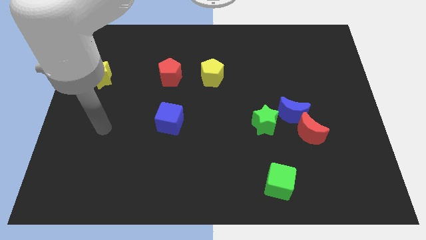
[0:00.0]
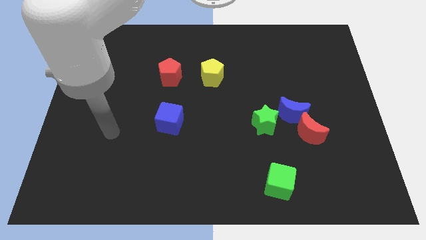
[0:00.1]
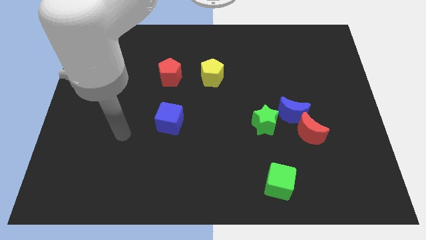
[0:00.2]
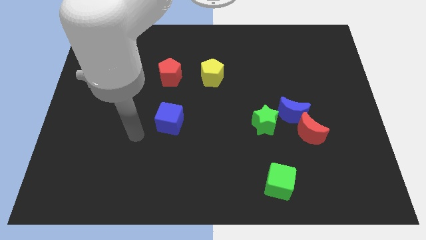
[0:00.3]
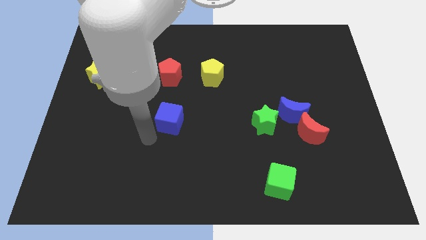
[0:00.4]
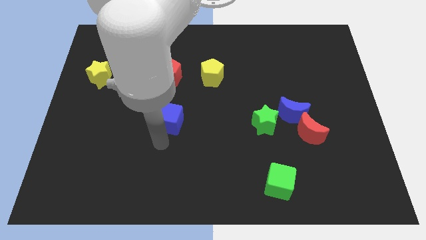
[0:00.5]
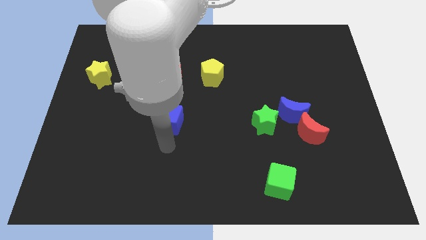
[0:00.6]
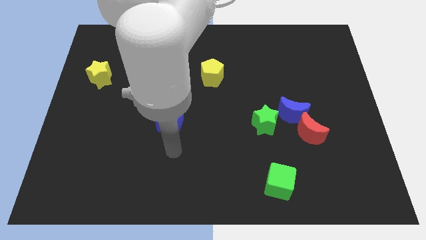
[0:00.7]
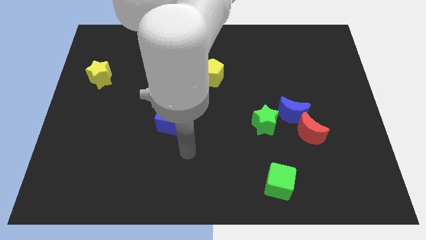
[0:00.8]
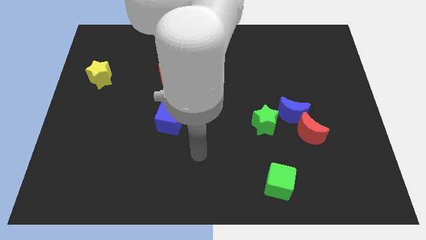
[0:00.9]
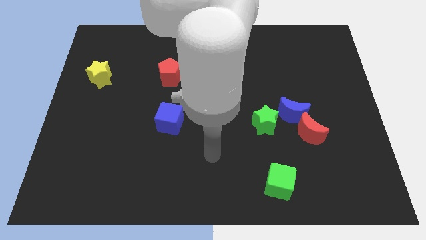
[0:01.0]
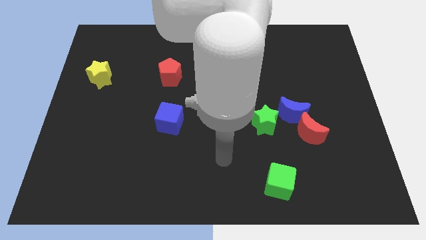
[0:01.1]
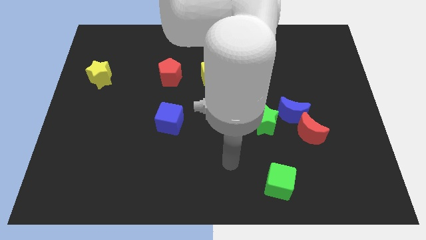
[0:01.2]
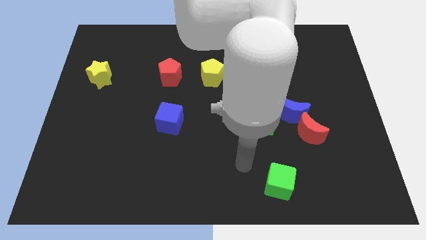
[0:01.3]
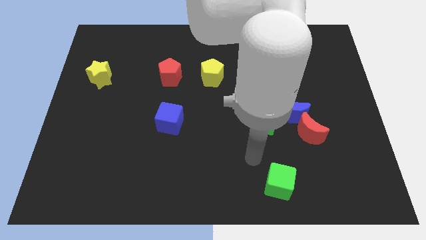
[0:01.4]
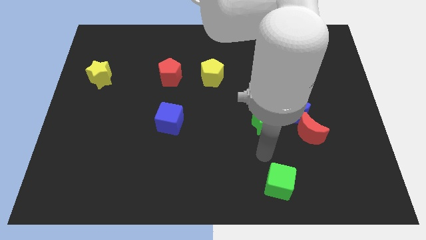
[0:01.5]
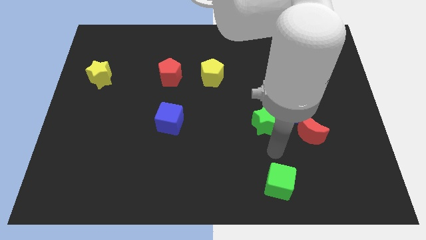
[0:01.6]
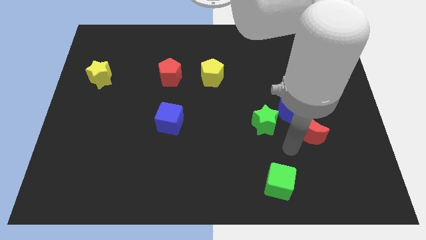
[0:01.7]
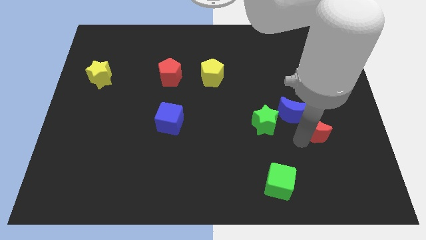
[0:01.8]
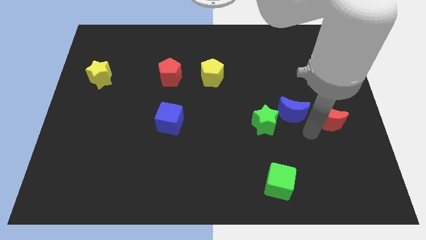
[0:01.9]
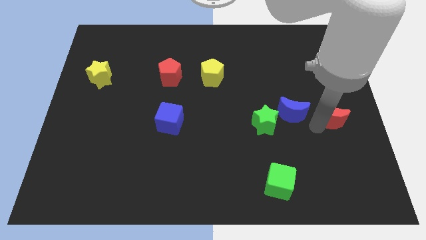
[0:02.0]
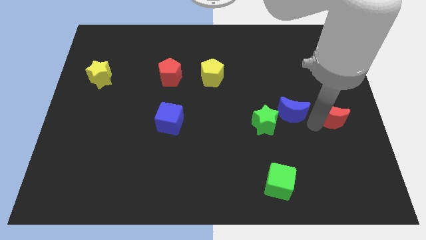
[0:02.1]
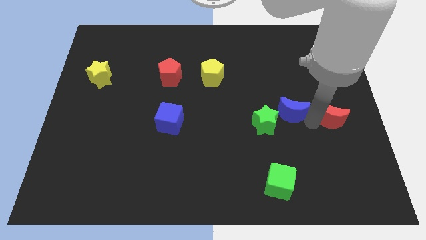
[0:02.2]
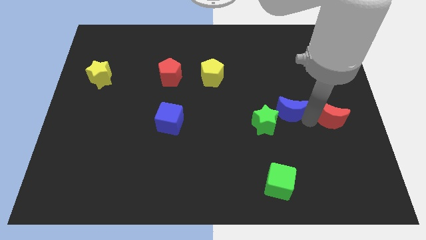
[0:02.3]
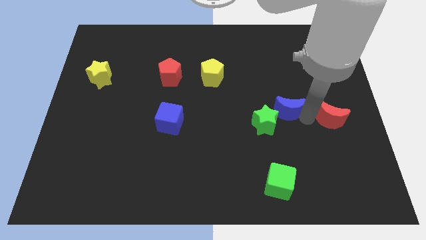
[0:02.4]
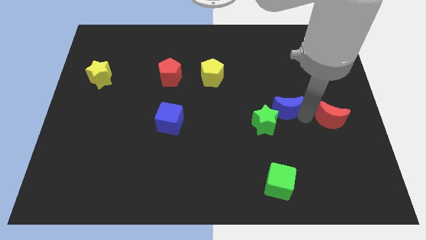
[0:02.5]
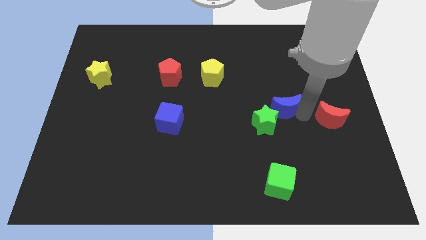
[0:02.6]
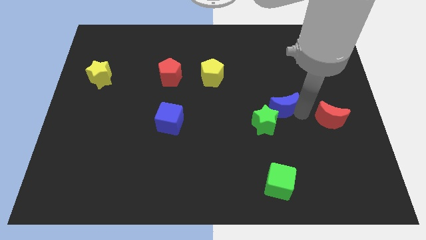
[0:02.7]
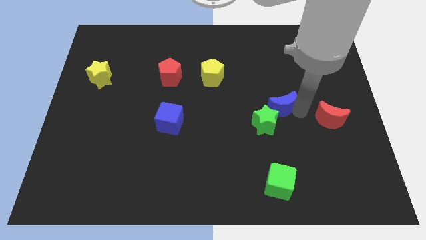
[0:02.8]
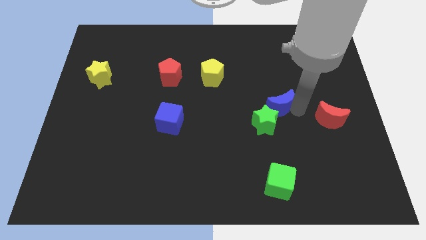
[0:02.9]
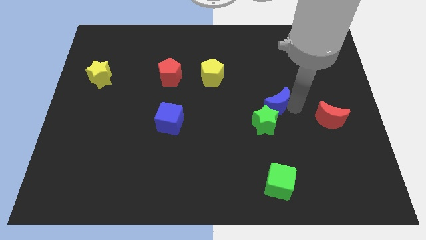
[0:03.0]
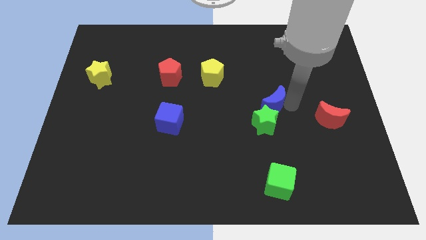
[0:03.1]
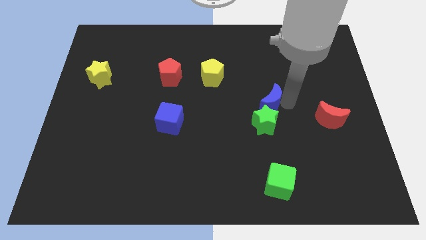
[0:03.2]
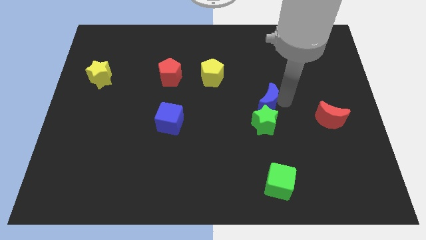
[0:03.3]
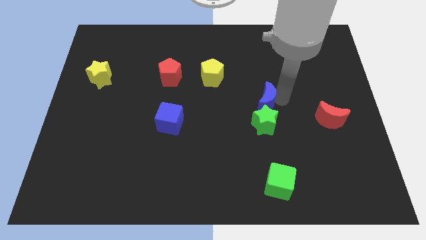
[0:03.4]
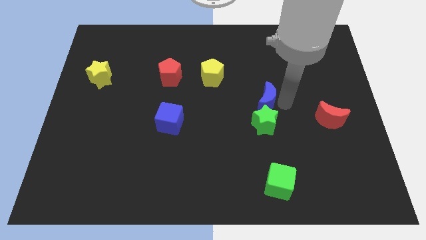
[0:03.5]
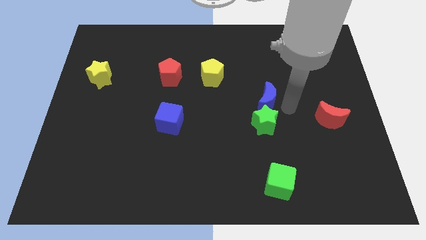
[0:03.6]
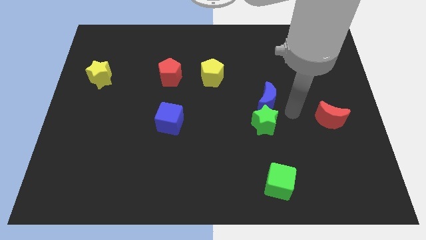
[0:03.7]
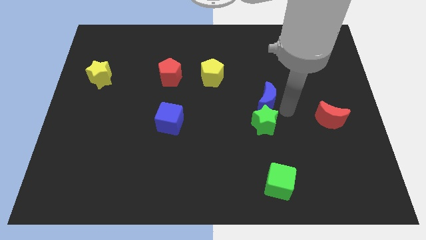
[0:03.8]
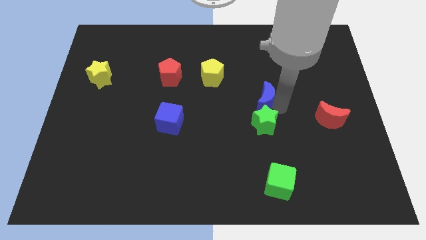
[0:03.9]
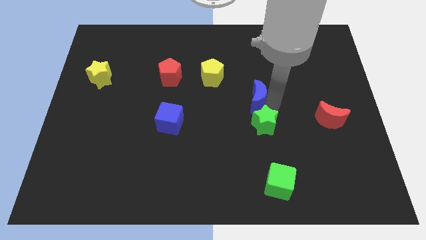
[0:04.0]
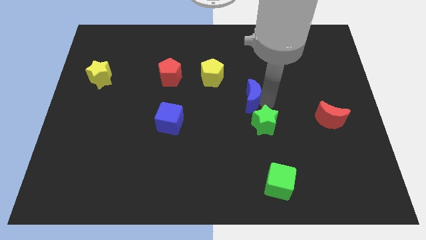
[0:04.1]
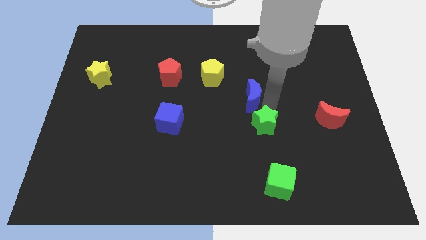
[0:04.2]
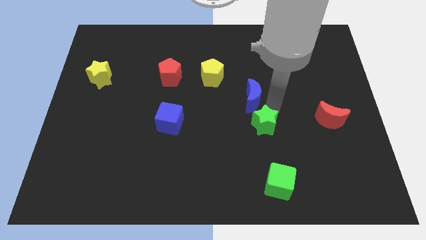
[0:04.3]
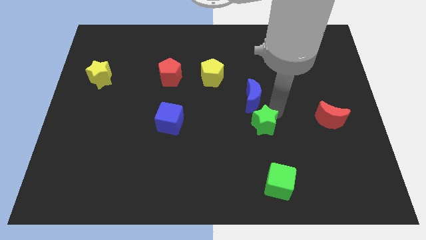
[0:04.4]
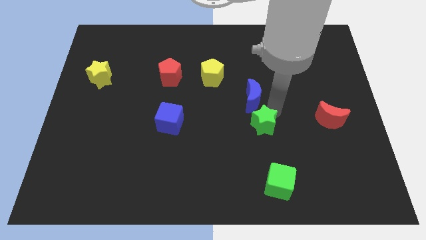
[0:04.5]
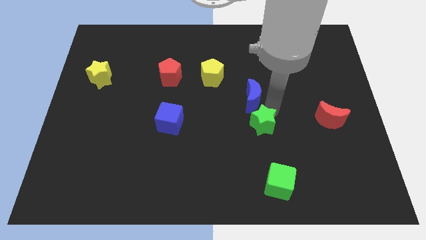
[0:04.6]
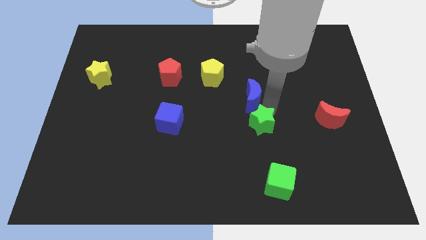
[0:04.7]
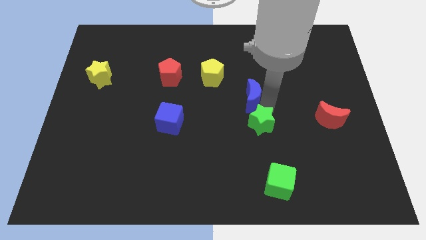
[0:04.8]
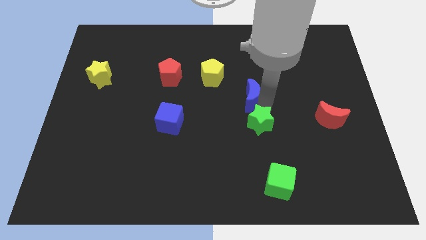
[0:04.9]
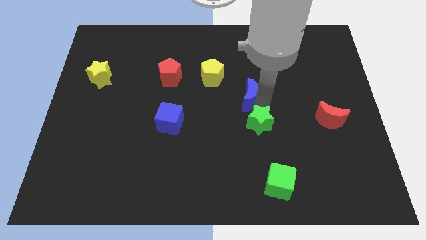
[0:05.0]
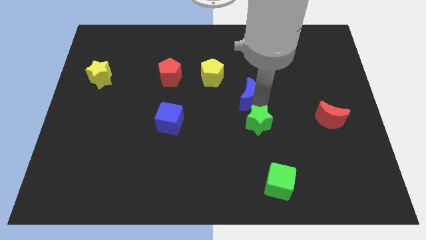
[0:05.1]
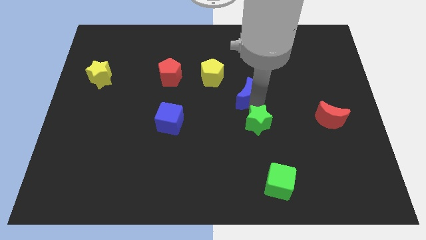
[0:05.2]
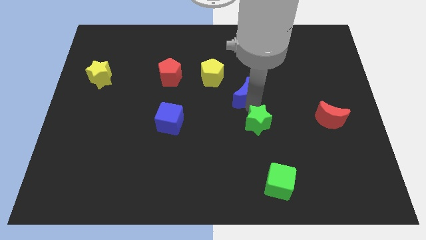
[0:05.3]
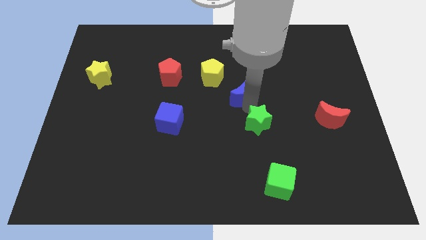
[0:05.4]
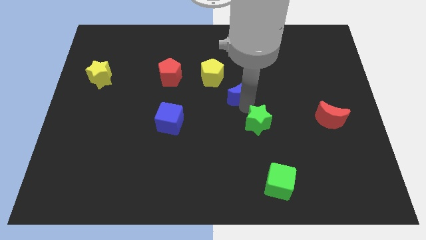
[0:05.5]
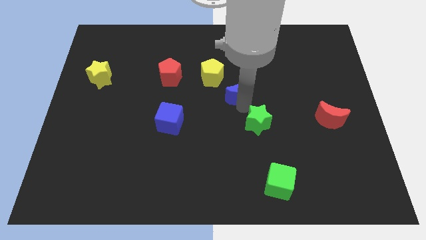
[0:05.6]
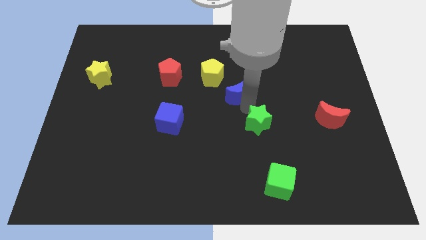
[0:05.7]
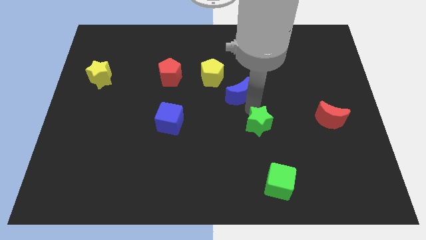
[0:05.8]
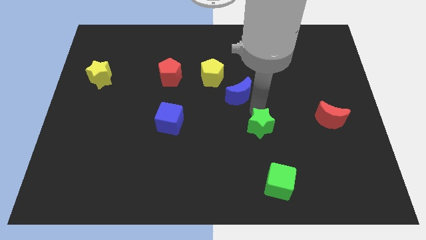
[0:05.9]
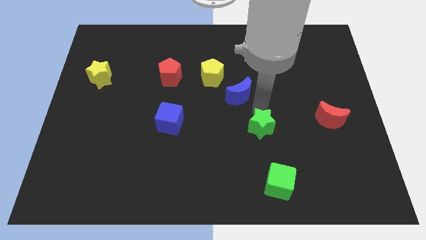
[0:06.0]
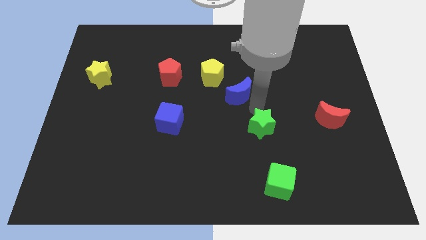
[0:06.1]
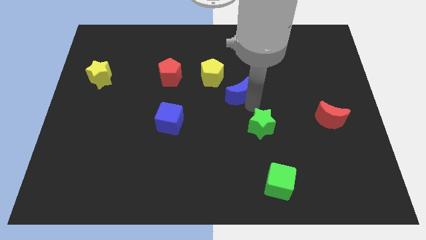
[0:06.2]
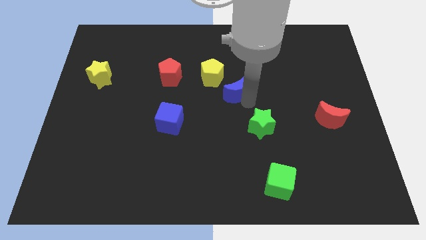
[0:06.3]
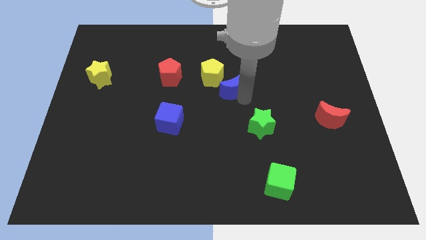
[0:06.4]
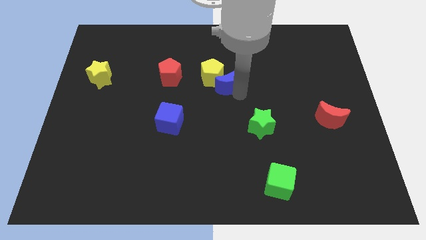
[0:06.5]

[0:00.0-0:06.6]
push the blue moon close to the yellow pentagon

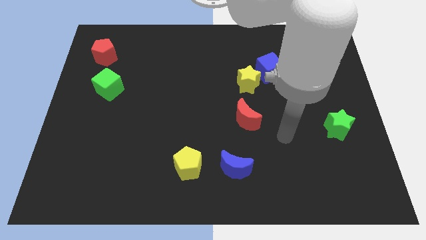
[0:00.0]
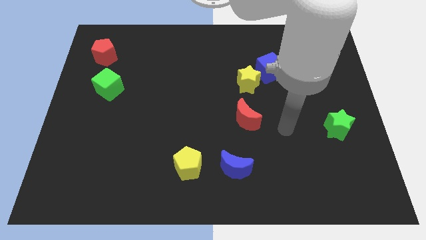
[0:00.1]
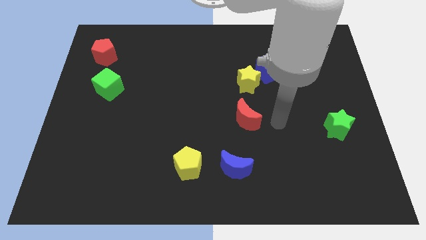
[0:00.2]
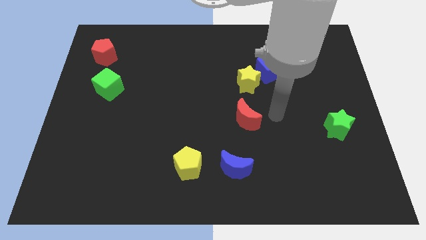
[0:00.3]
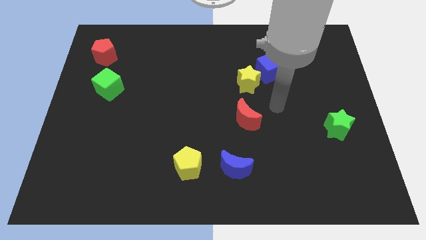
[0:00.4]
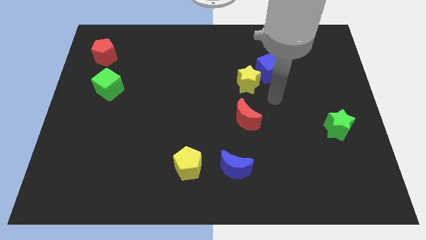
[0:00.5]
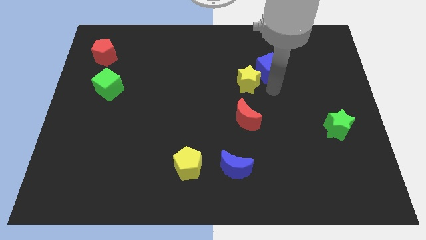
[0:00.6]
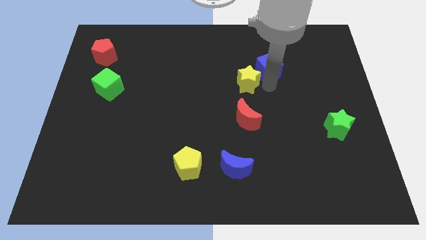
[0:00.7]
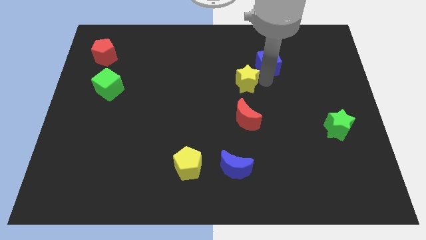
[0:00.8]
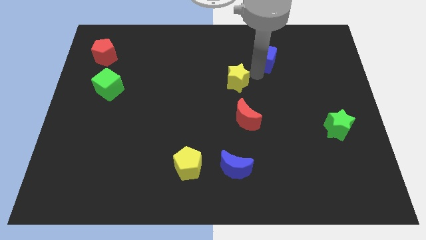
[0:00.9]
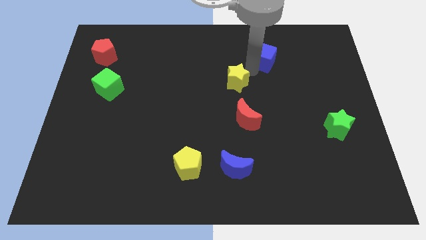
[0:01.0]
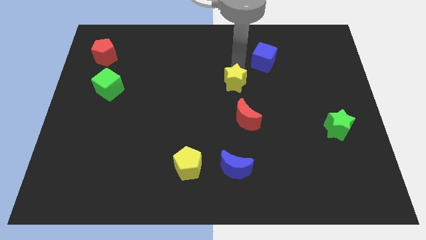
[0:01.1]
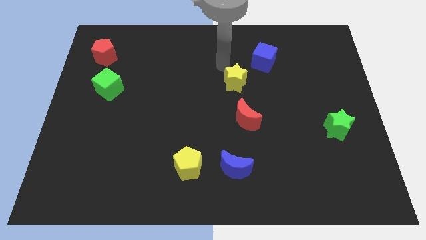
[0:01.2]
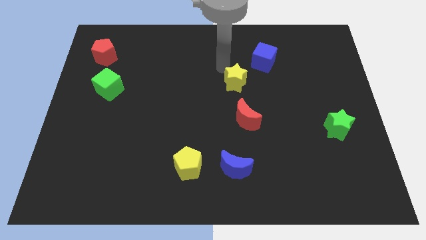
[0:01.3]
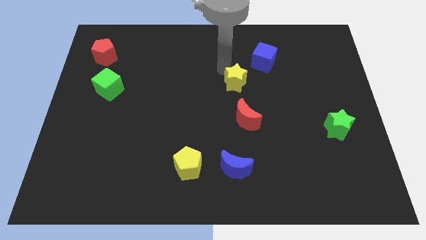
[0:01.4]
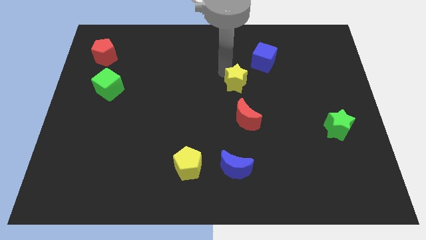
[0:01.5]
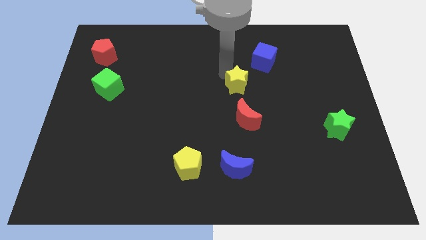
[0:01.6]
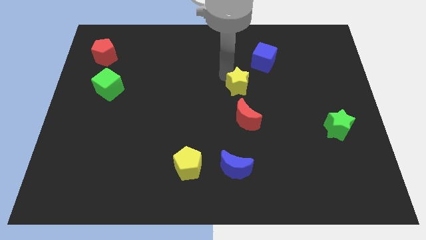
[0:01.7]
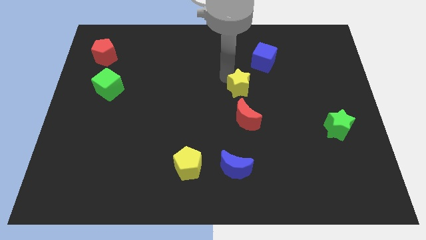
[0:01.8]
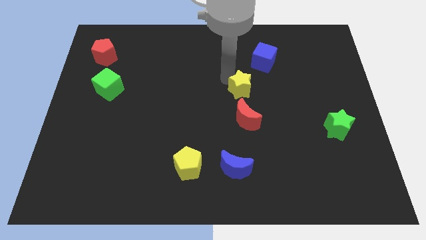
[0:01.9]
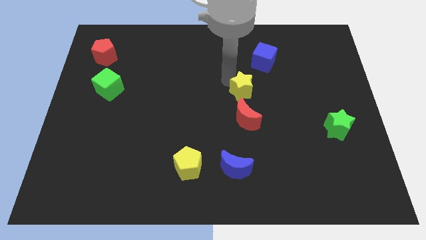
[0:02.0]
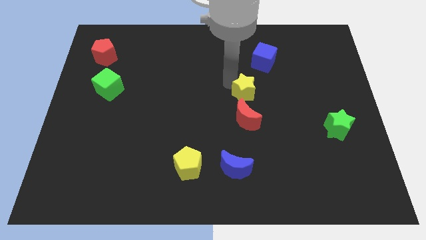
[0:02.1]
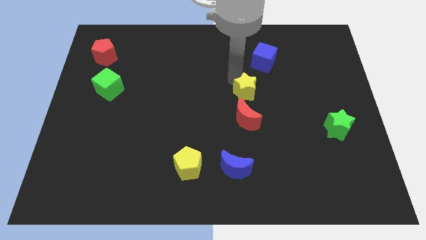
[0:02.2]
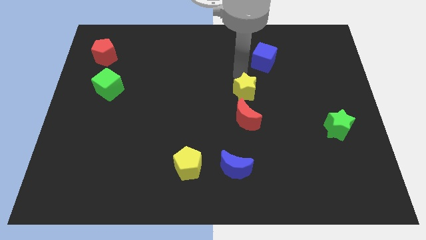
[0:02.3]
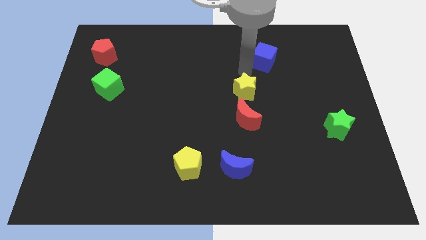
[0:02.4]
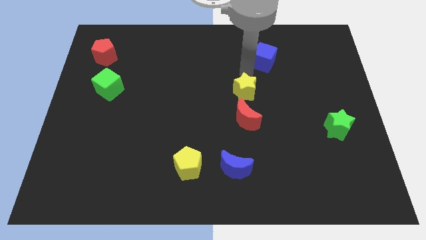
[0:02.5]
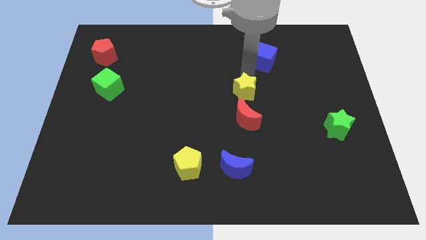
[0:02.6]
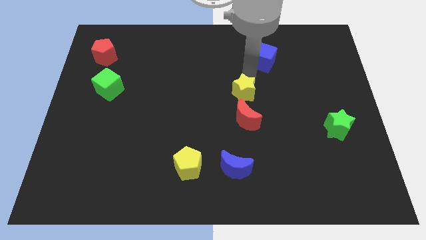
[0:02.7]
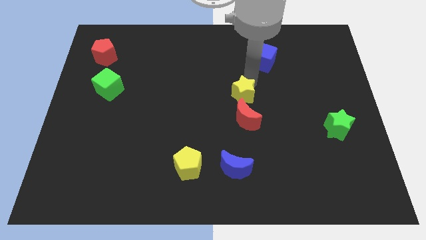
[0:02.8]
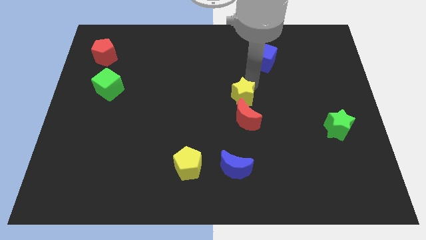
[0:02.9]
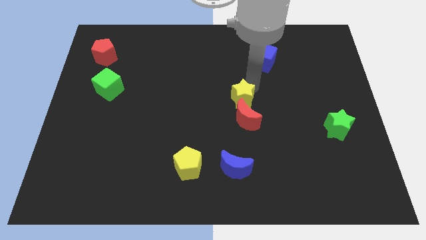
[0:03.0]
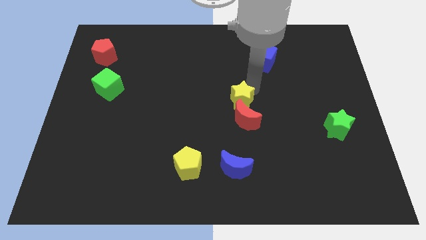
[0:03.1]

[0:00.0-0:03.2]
move the yellow star to the red moon
